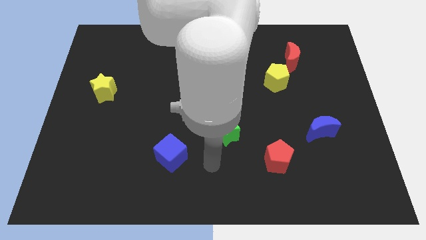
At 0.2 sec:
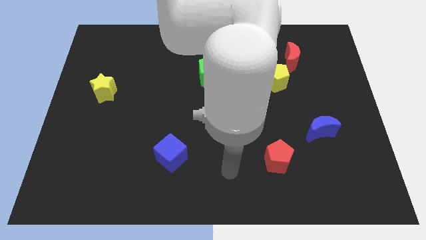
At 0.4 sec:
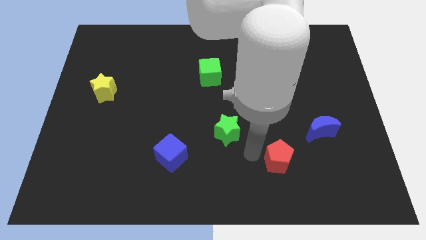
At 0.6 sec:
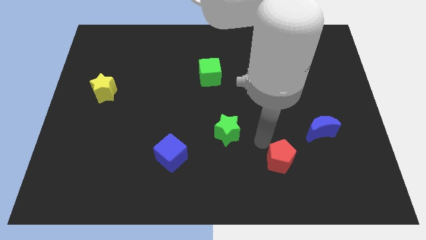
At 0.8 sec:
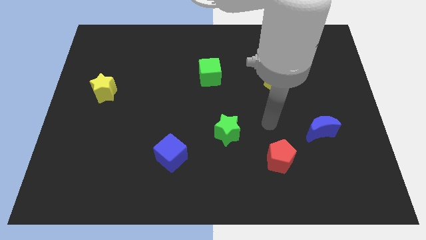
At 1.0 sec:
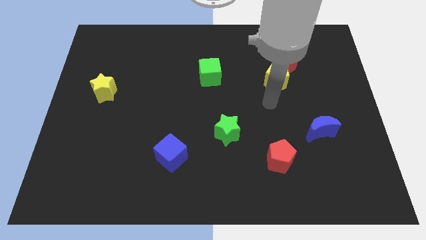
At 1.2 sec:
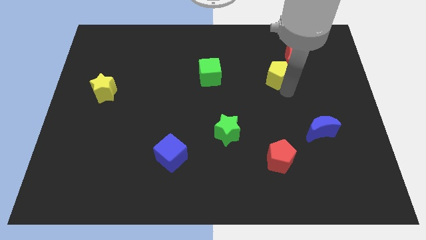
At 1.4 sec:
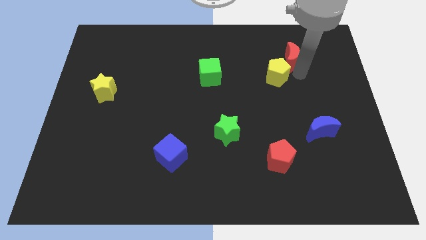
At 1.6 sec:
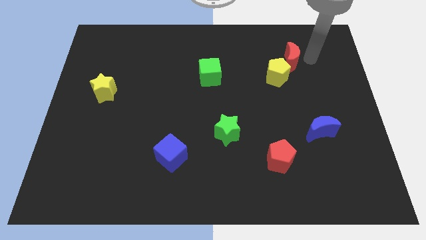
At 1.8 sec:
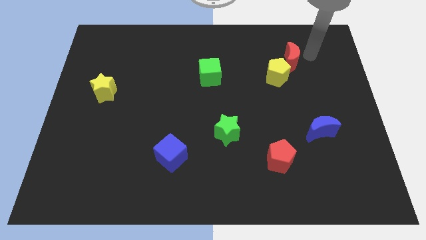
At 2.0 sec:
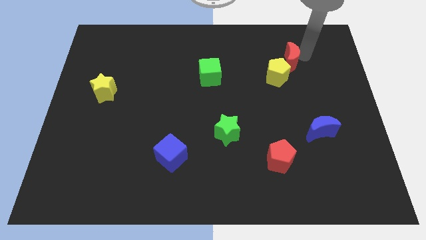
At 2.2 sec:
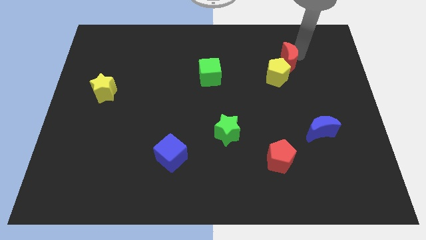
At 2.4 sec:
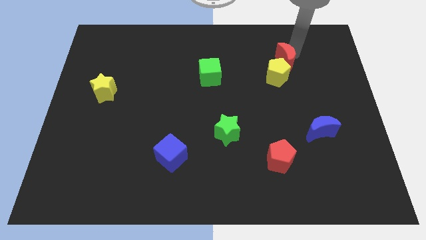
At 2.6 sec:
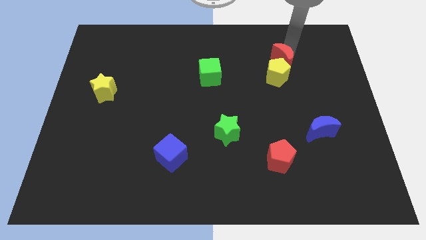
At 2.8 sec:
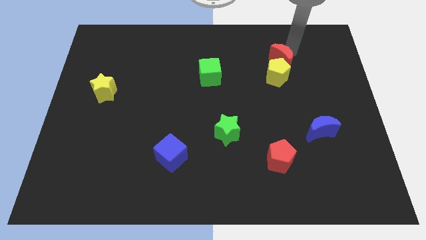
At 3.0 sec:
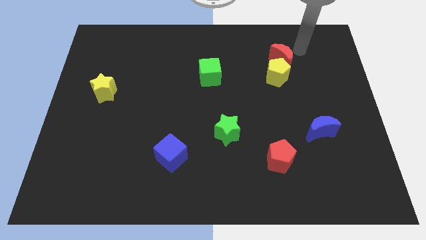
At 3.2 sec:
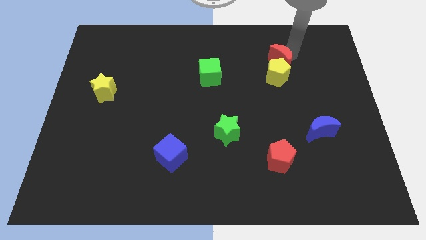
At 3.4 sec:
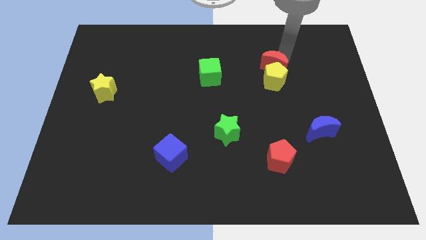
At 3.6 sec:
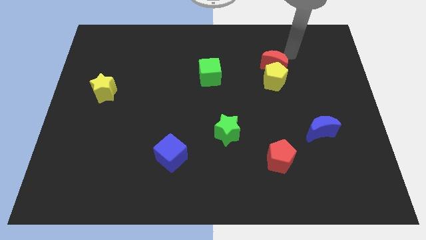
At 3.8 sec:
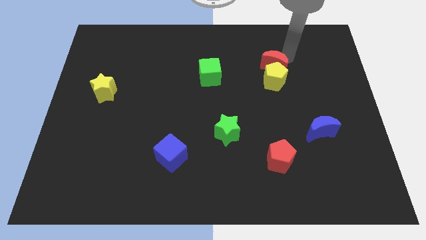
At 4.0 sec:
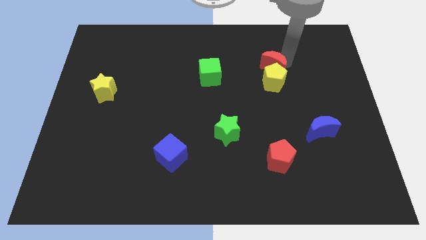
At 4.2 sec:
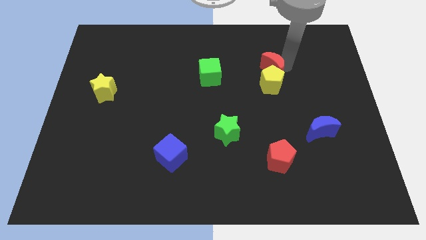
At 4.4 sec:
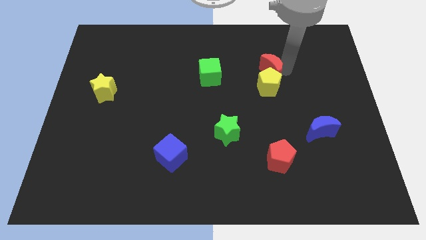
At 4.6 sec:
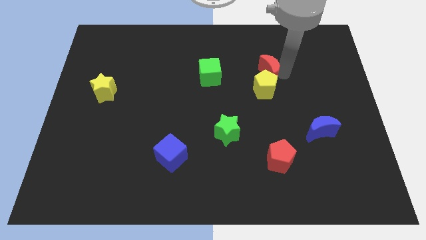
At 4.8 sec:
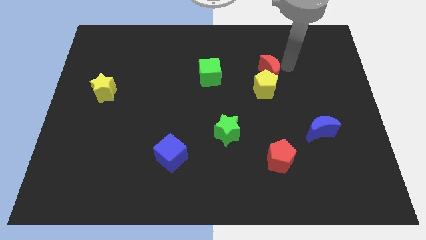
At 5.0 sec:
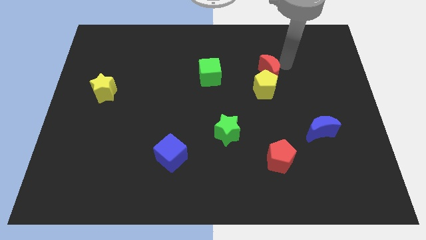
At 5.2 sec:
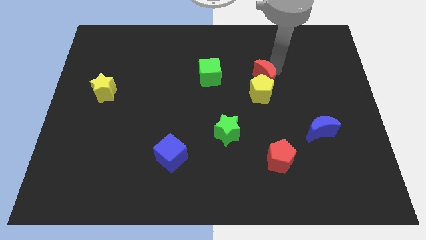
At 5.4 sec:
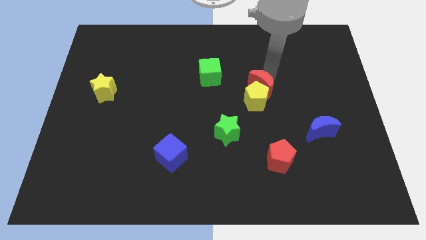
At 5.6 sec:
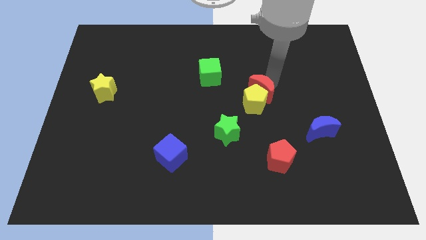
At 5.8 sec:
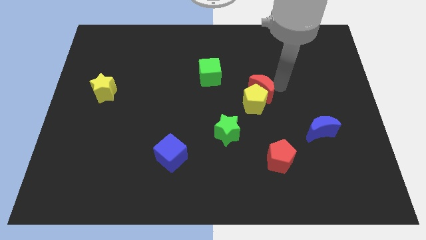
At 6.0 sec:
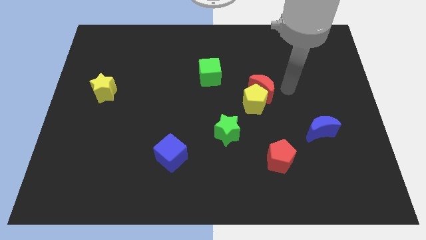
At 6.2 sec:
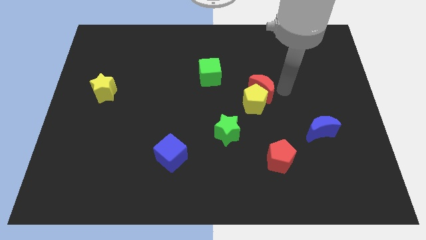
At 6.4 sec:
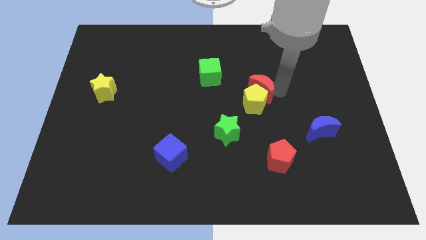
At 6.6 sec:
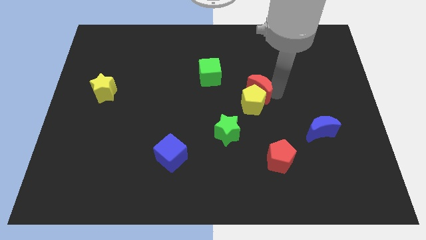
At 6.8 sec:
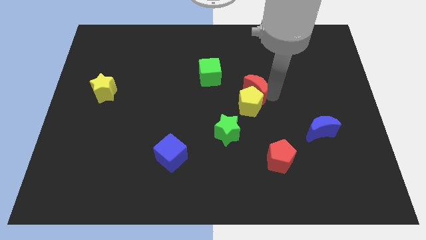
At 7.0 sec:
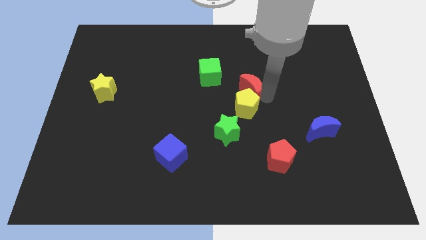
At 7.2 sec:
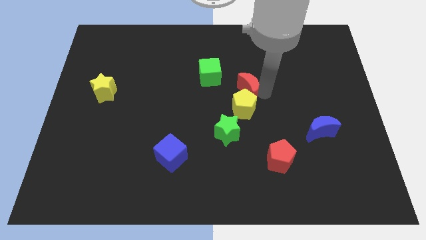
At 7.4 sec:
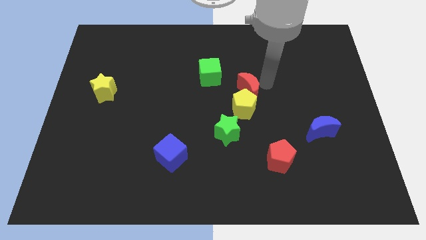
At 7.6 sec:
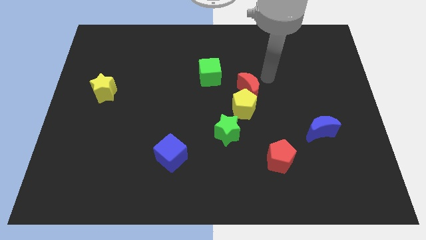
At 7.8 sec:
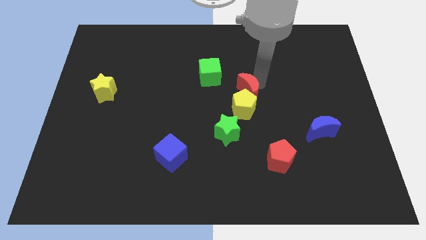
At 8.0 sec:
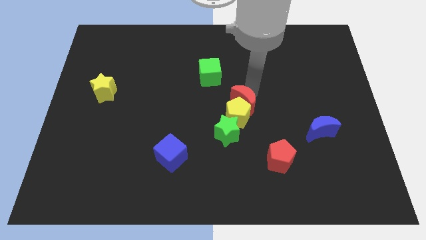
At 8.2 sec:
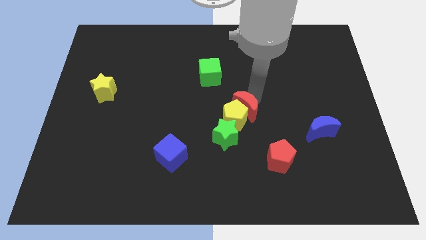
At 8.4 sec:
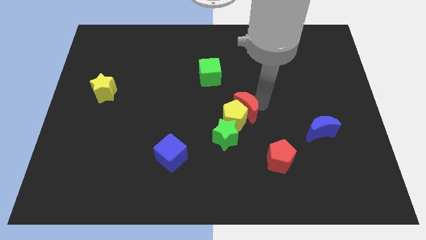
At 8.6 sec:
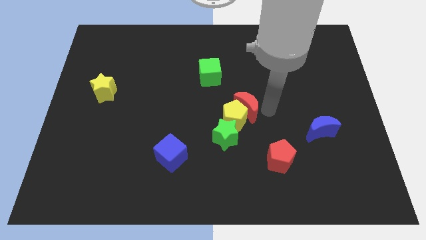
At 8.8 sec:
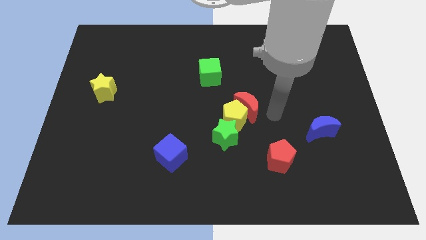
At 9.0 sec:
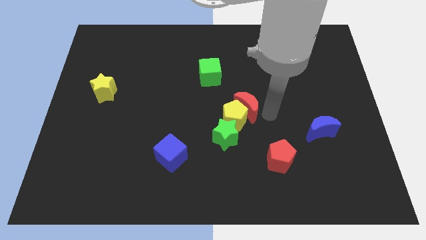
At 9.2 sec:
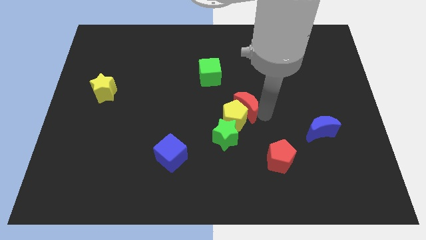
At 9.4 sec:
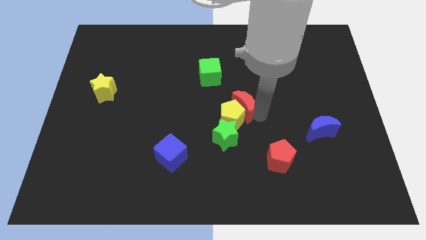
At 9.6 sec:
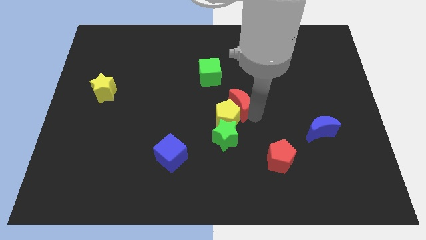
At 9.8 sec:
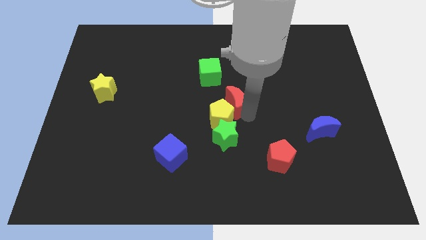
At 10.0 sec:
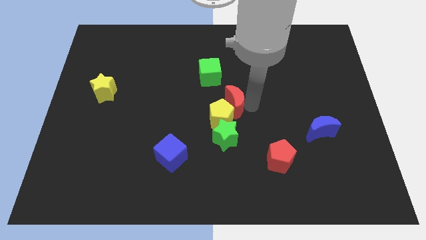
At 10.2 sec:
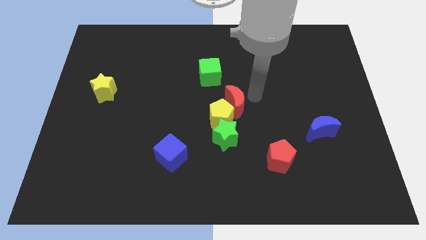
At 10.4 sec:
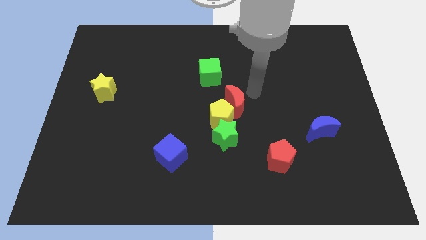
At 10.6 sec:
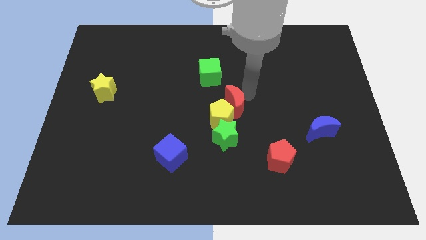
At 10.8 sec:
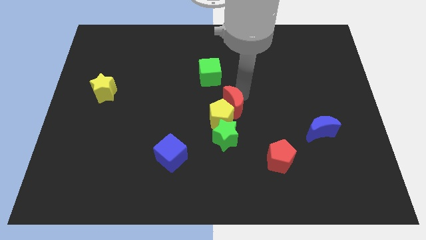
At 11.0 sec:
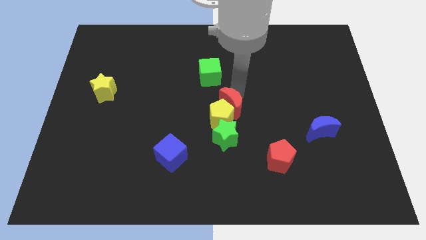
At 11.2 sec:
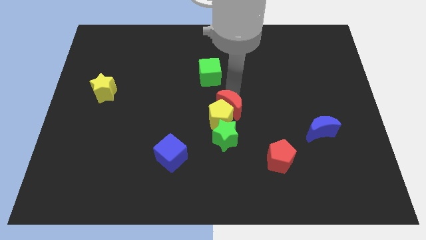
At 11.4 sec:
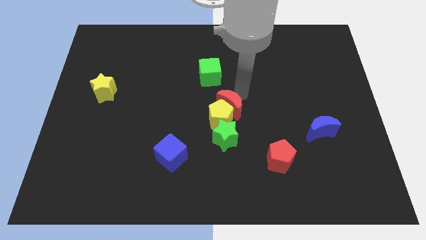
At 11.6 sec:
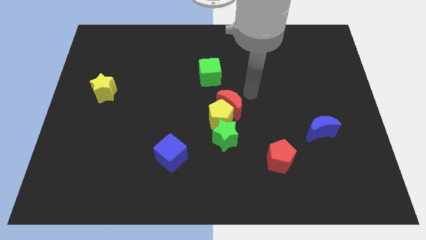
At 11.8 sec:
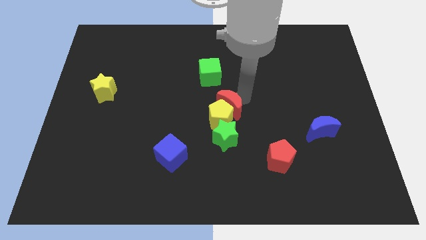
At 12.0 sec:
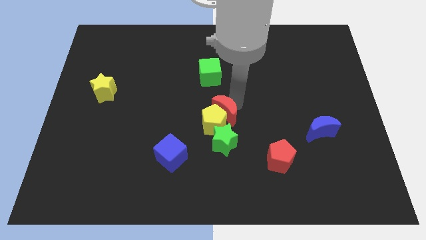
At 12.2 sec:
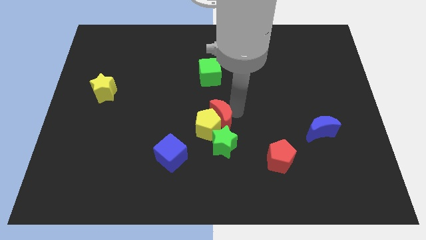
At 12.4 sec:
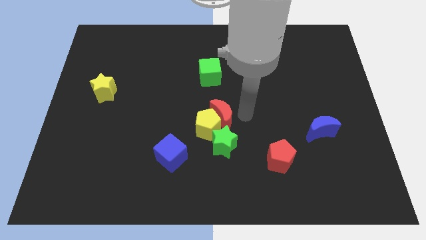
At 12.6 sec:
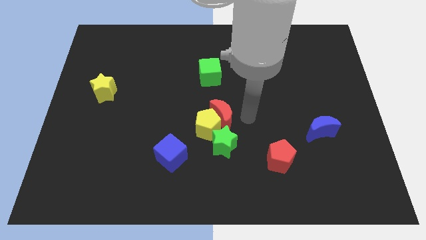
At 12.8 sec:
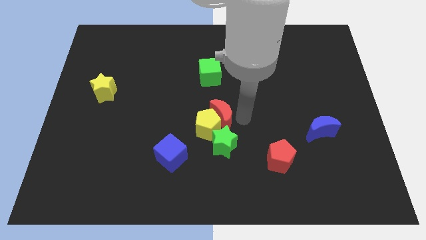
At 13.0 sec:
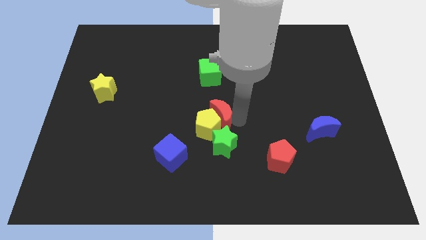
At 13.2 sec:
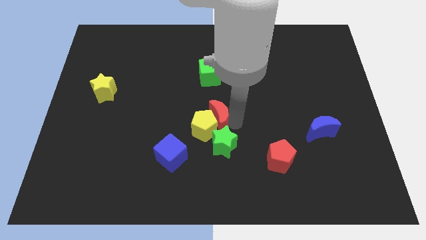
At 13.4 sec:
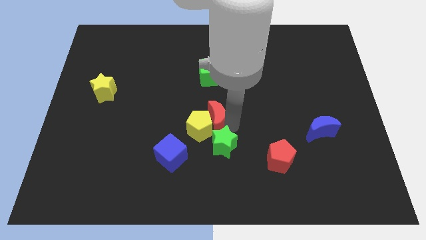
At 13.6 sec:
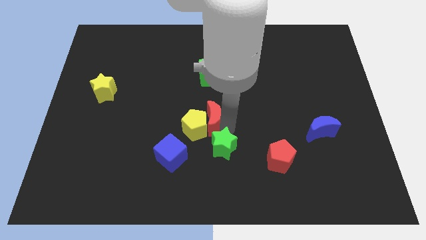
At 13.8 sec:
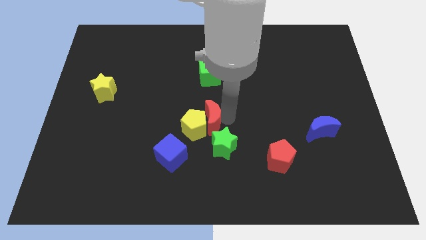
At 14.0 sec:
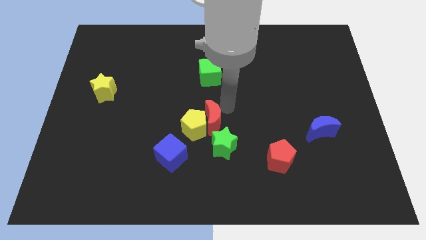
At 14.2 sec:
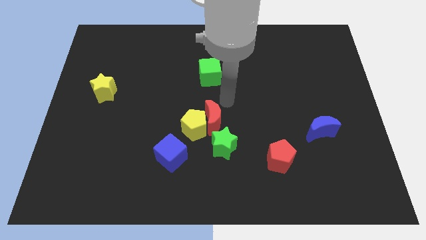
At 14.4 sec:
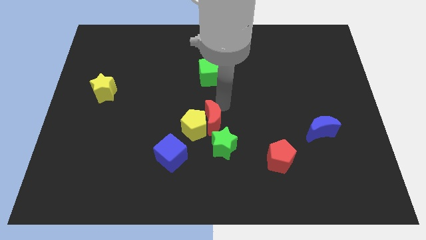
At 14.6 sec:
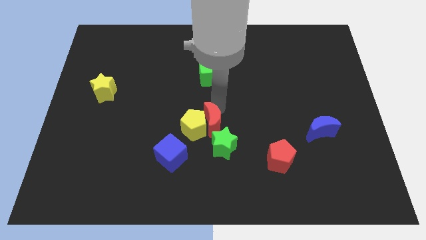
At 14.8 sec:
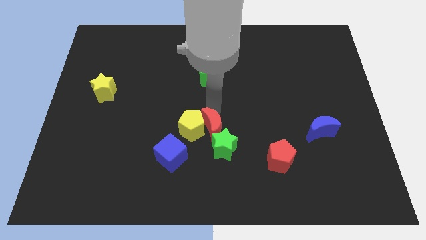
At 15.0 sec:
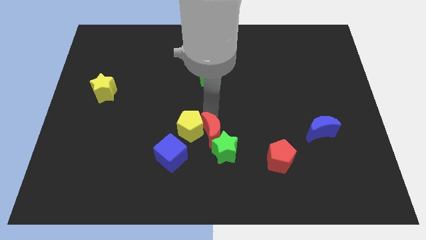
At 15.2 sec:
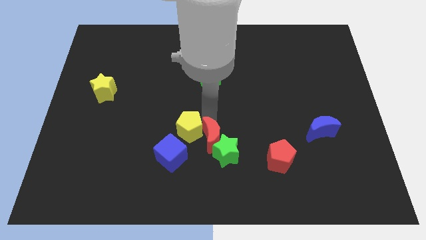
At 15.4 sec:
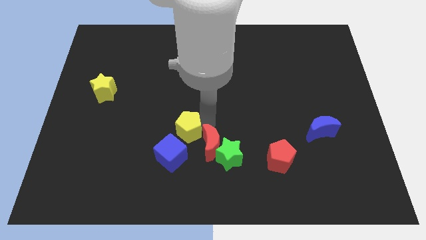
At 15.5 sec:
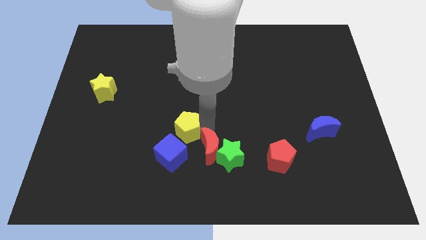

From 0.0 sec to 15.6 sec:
push the red moon to the bottom left of the green star

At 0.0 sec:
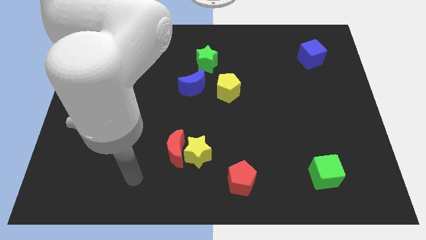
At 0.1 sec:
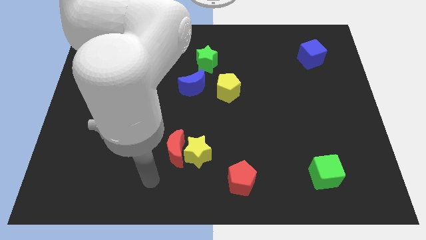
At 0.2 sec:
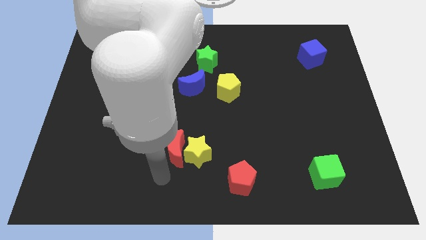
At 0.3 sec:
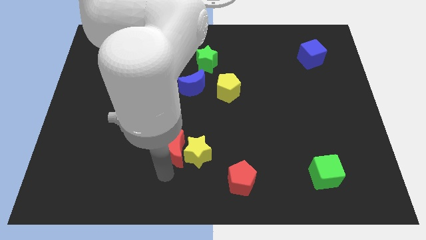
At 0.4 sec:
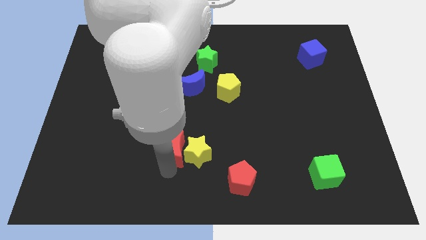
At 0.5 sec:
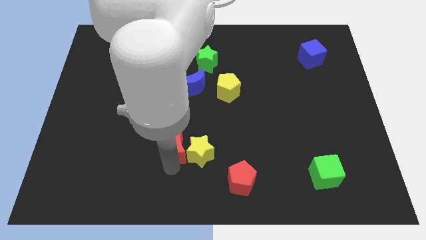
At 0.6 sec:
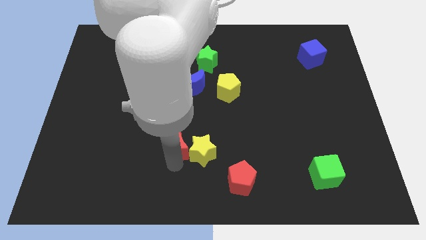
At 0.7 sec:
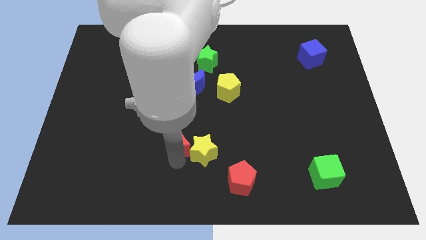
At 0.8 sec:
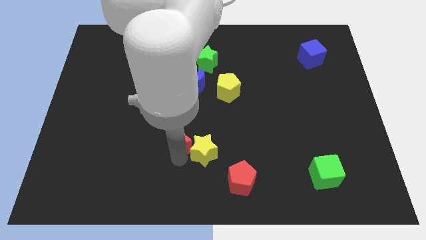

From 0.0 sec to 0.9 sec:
slide the red moon to the bottom of the blue moon
